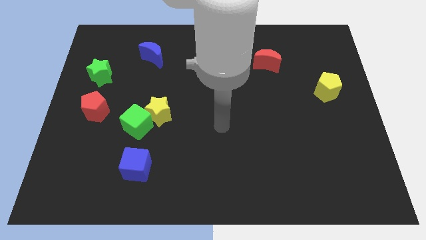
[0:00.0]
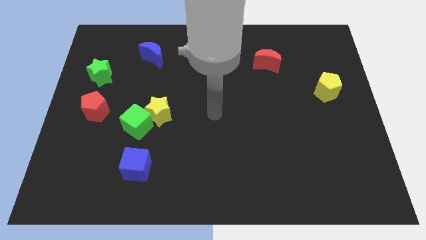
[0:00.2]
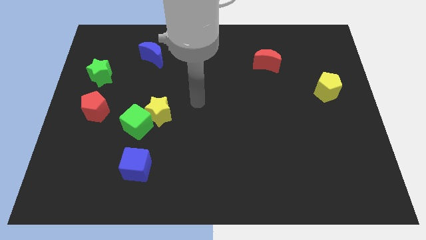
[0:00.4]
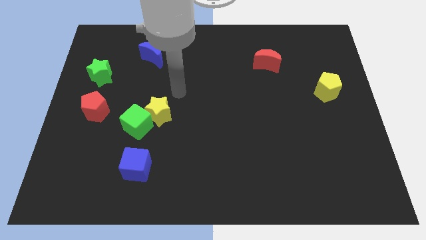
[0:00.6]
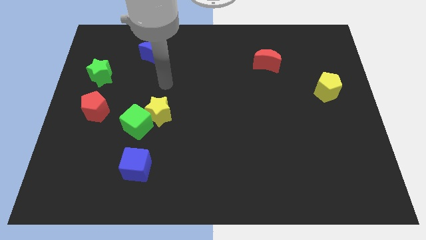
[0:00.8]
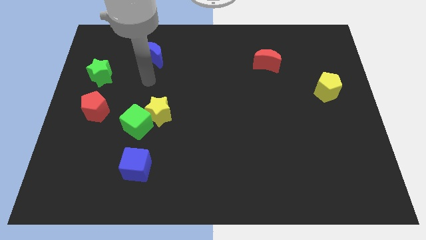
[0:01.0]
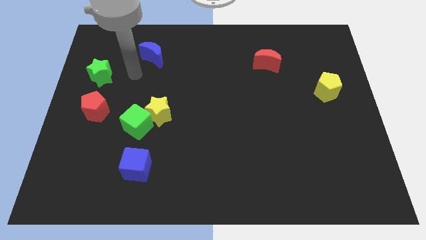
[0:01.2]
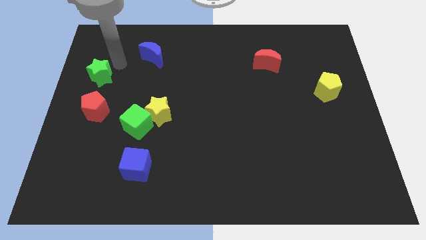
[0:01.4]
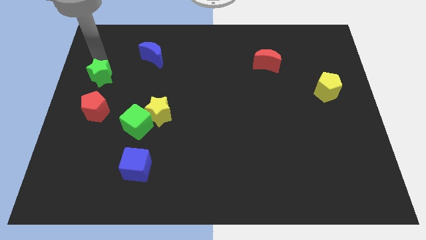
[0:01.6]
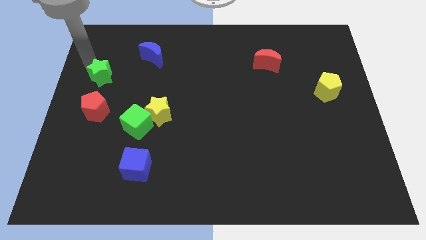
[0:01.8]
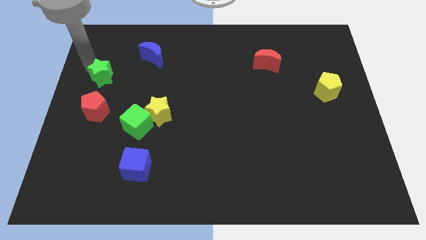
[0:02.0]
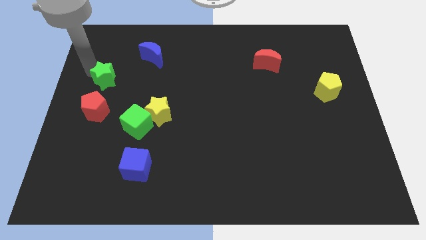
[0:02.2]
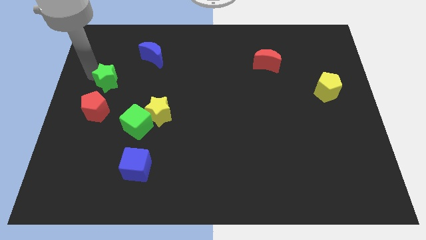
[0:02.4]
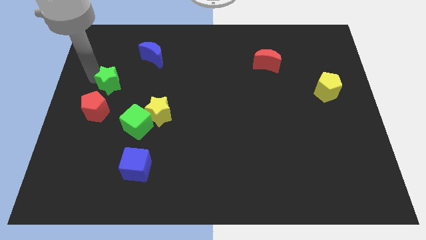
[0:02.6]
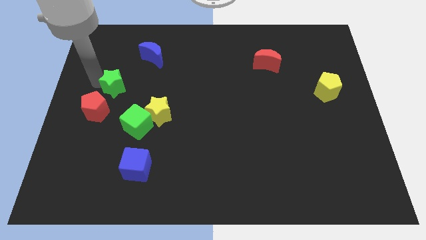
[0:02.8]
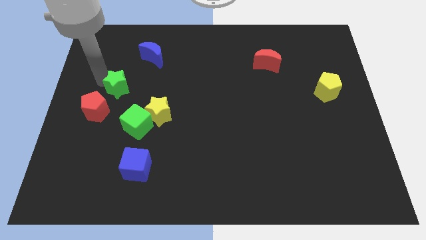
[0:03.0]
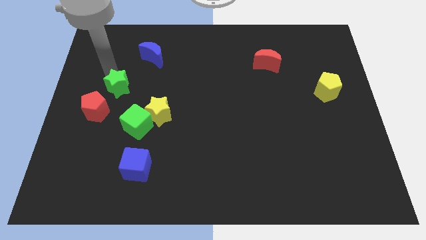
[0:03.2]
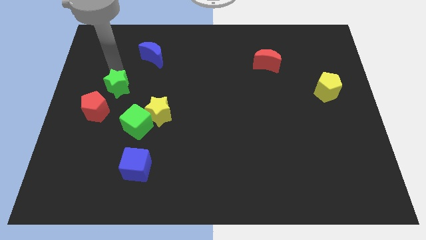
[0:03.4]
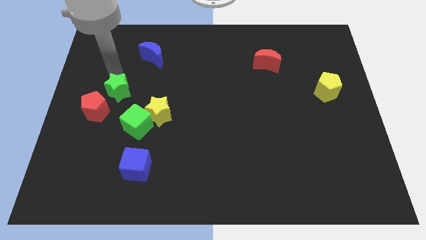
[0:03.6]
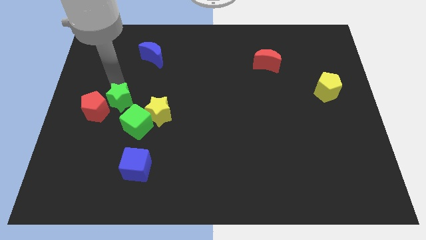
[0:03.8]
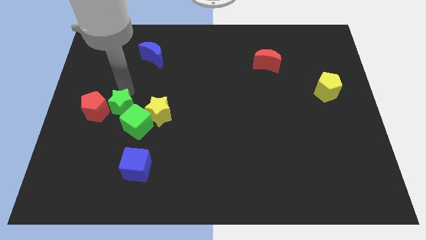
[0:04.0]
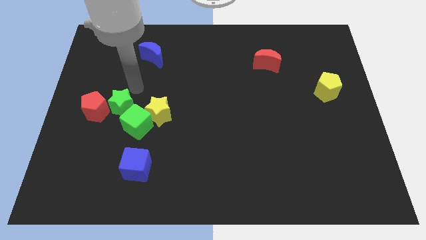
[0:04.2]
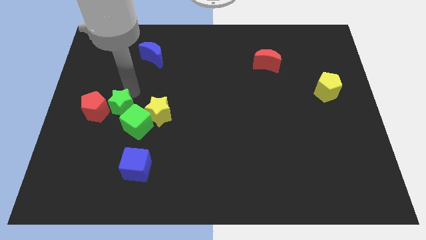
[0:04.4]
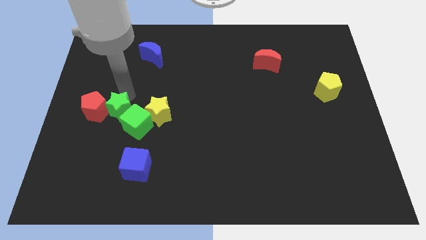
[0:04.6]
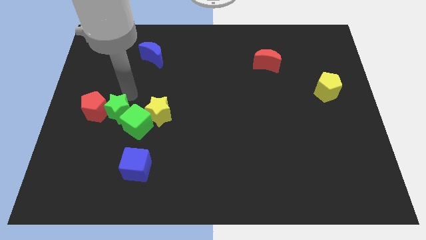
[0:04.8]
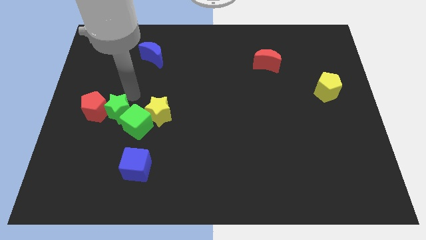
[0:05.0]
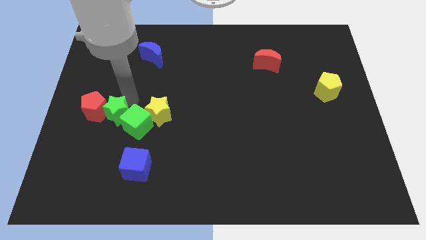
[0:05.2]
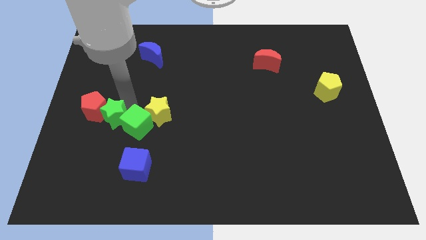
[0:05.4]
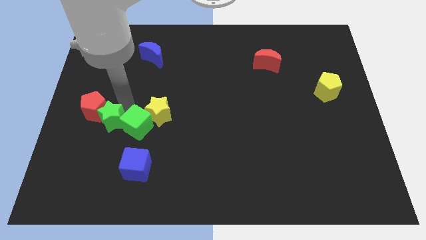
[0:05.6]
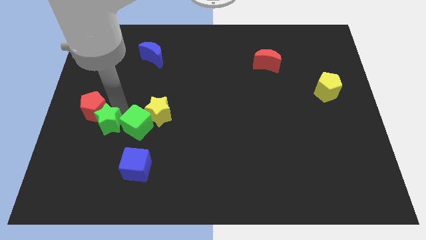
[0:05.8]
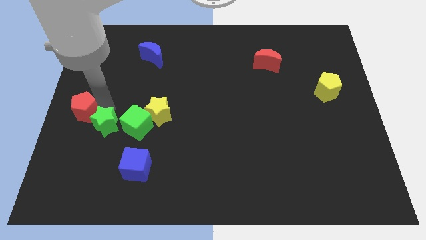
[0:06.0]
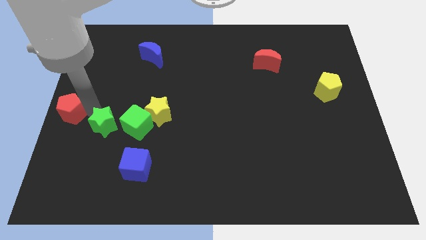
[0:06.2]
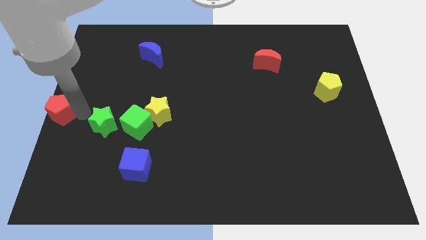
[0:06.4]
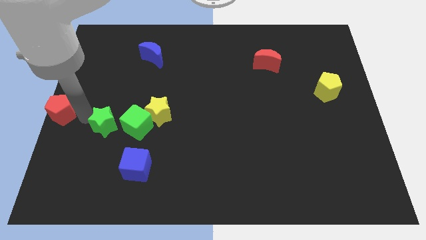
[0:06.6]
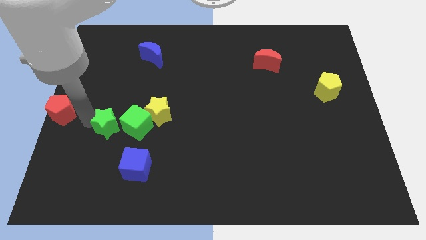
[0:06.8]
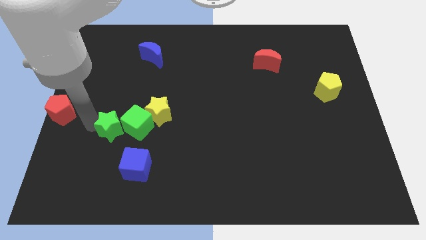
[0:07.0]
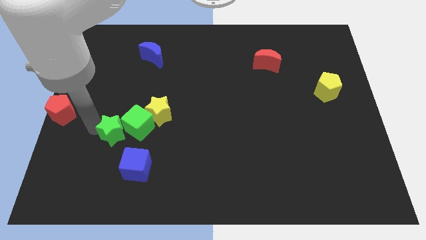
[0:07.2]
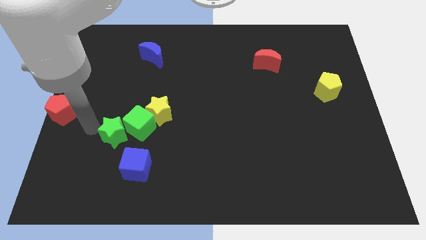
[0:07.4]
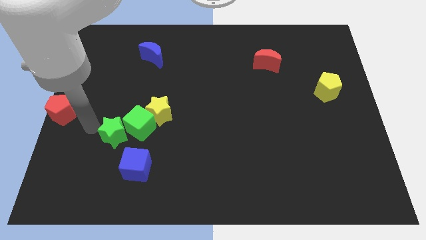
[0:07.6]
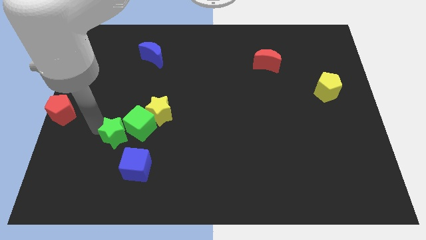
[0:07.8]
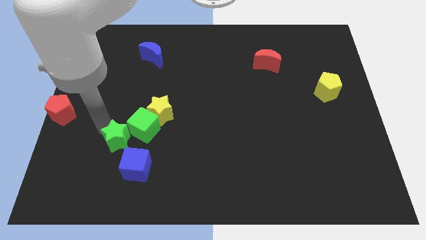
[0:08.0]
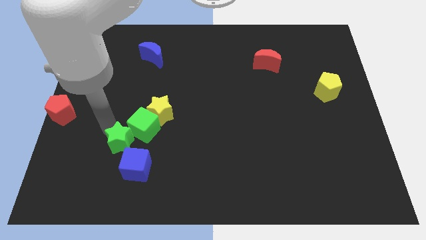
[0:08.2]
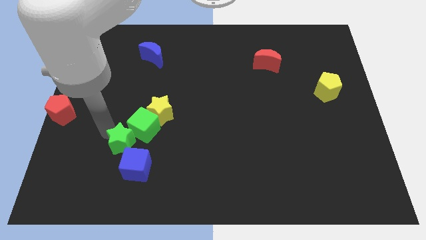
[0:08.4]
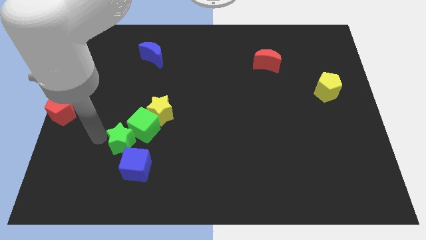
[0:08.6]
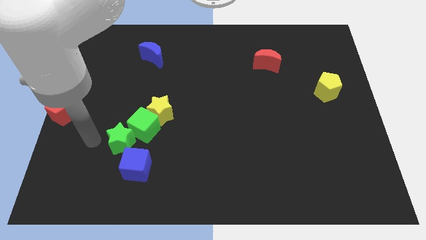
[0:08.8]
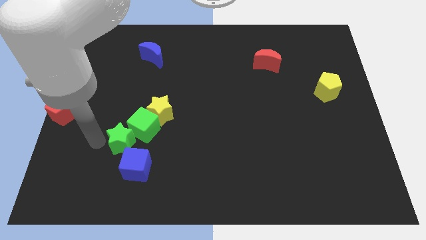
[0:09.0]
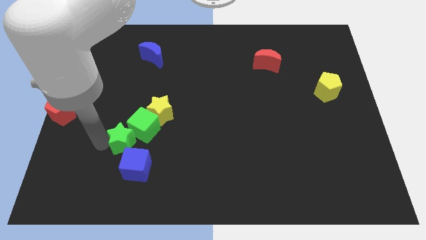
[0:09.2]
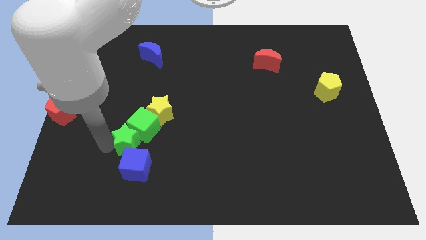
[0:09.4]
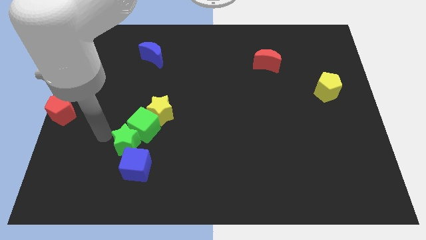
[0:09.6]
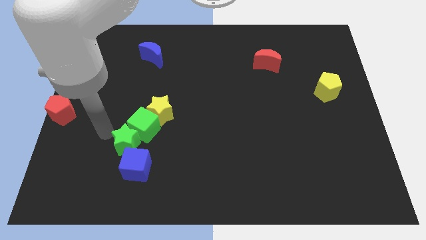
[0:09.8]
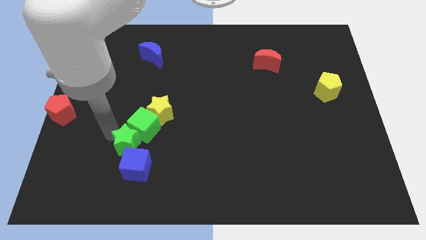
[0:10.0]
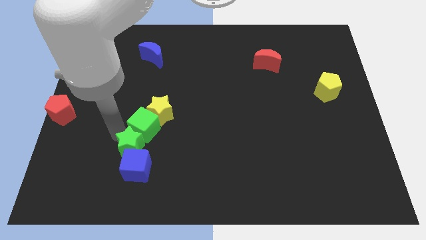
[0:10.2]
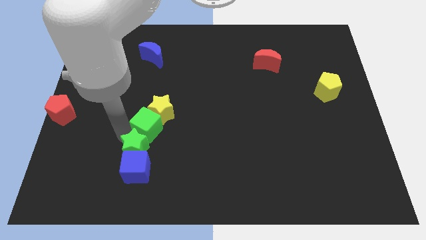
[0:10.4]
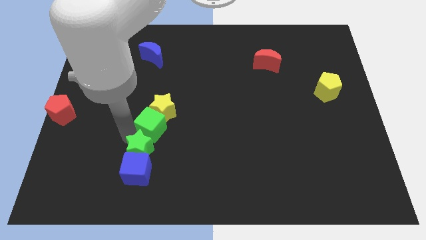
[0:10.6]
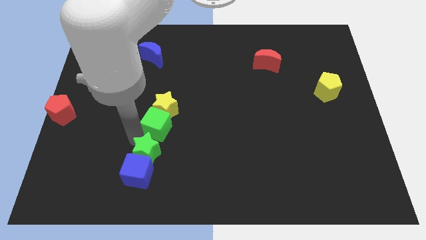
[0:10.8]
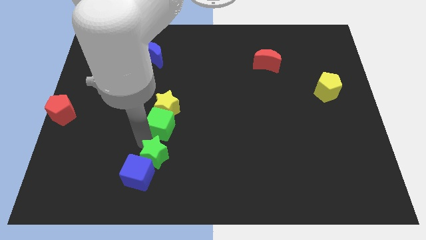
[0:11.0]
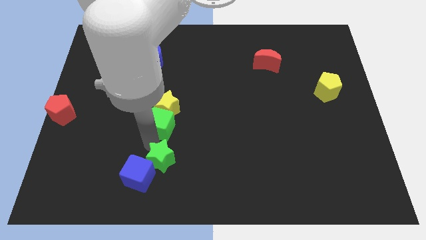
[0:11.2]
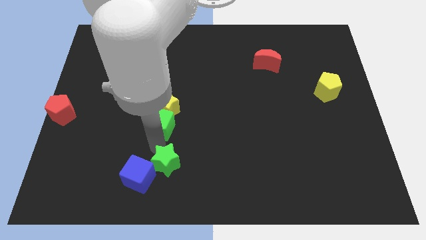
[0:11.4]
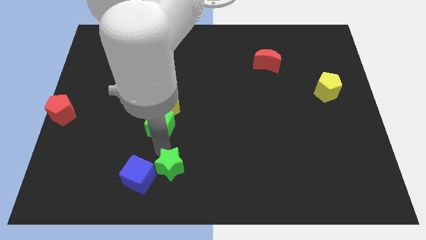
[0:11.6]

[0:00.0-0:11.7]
move the green star to the bottom

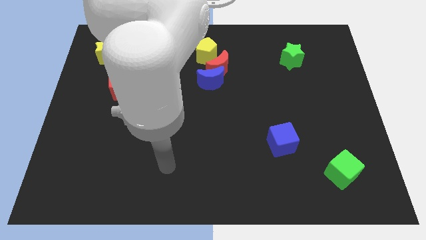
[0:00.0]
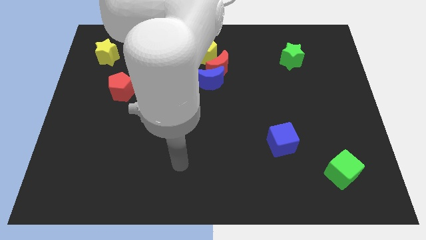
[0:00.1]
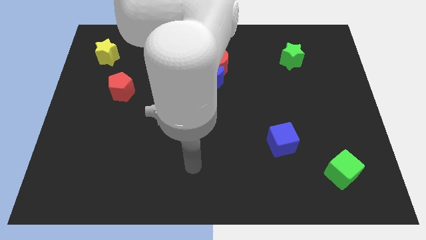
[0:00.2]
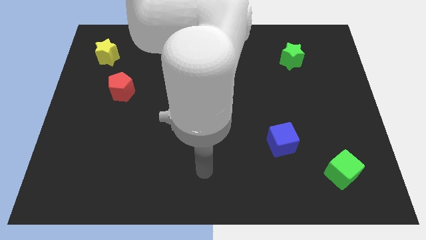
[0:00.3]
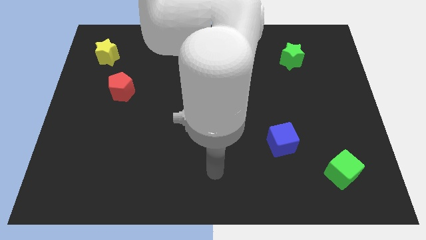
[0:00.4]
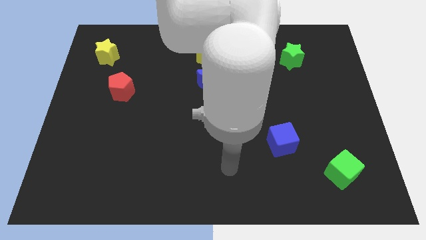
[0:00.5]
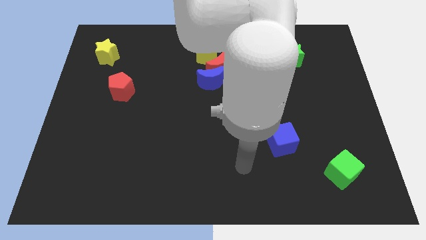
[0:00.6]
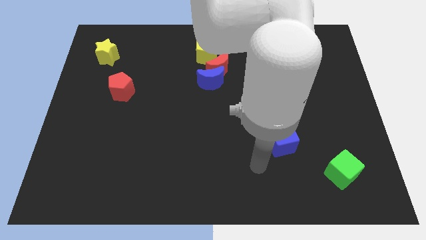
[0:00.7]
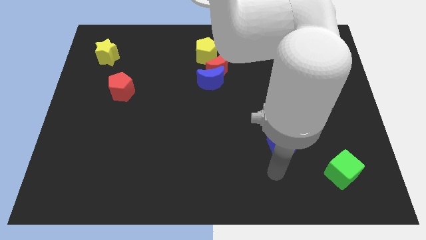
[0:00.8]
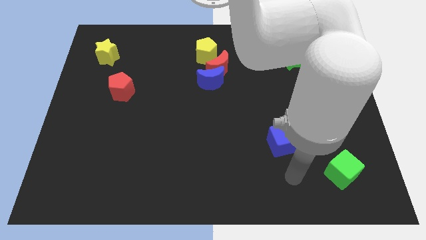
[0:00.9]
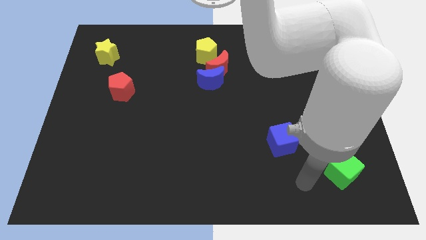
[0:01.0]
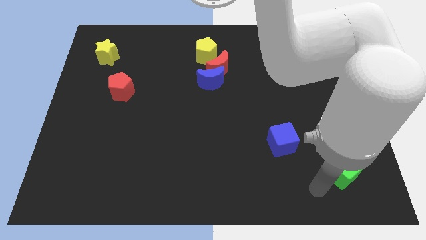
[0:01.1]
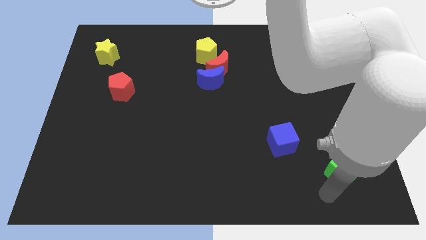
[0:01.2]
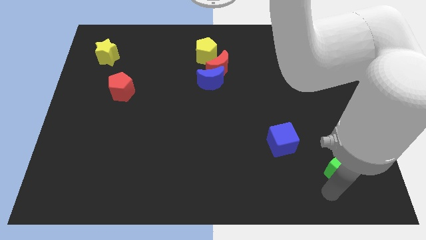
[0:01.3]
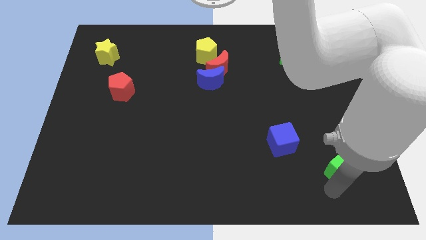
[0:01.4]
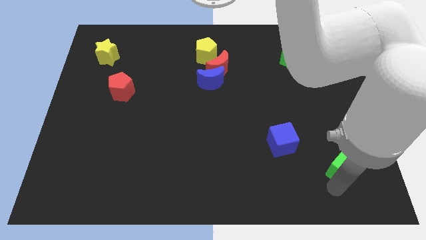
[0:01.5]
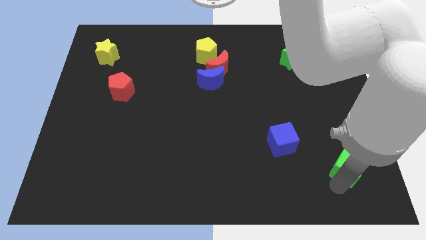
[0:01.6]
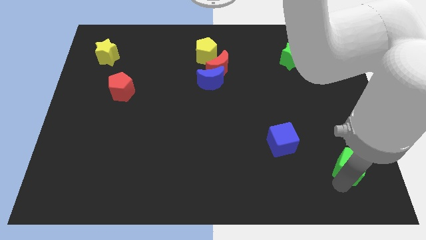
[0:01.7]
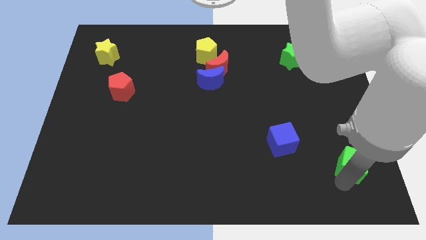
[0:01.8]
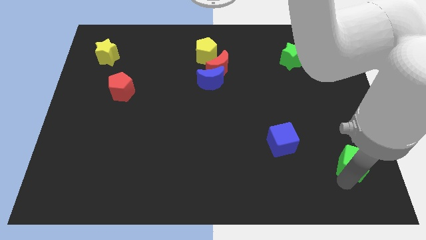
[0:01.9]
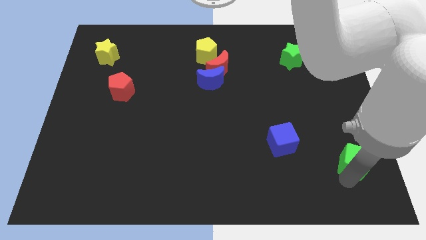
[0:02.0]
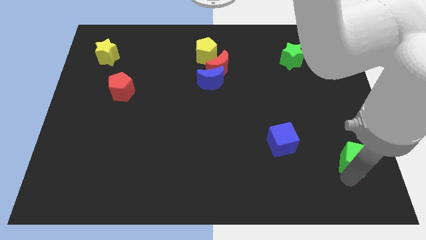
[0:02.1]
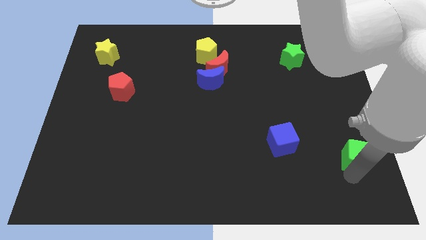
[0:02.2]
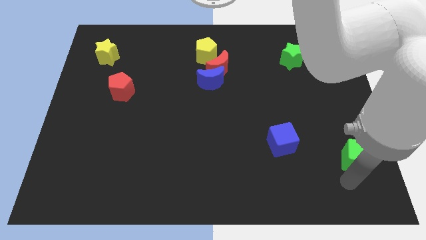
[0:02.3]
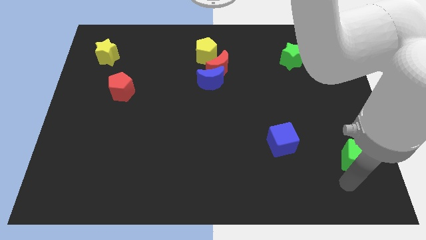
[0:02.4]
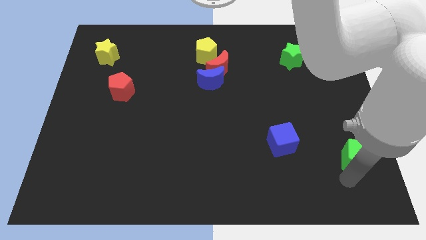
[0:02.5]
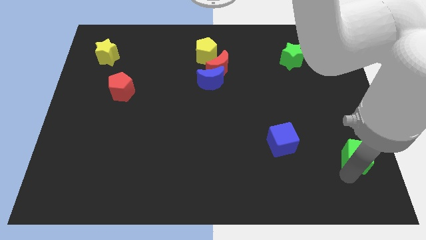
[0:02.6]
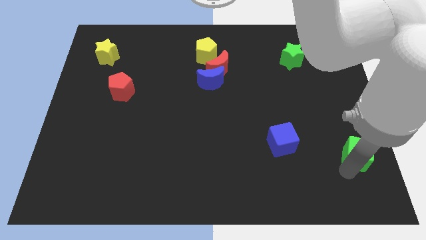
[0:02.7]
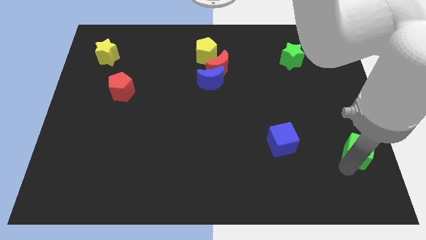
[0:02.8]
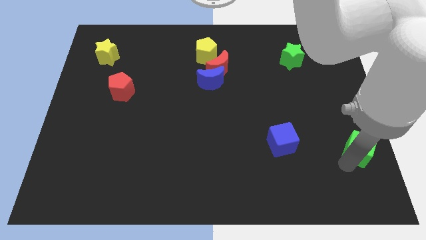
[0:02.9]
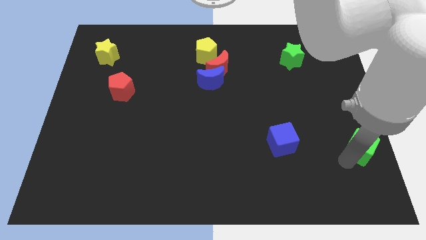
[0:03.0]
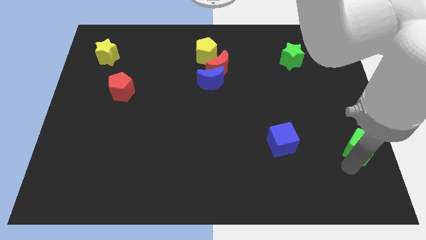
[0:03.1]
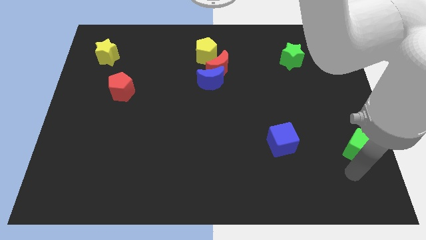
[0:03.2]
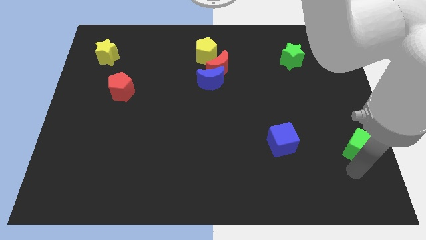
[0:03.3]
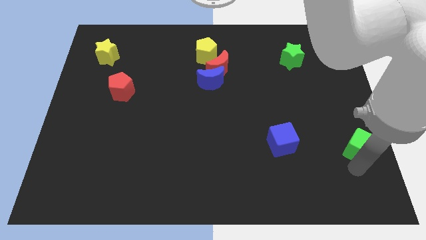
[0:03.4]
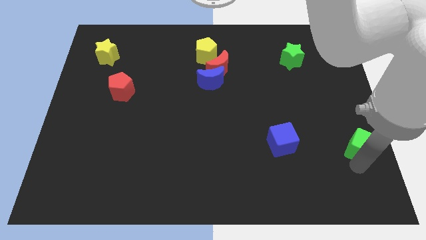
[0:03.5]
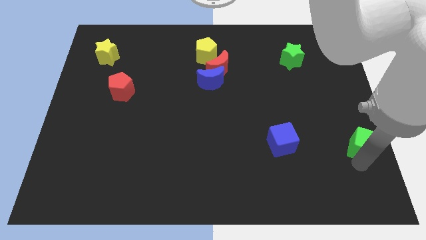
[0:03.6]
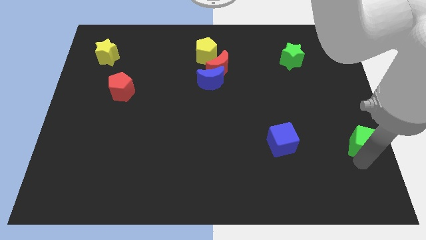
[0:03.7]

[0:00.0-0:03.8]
move the green cube to the right side
